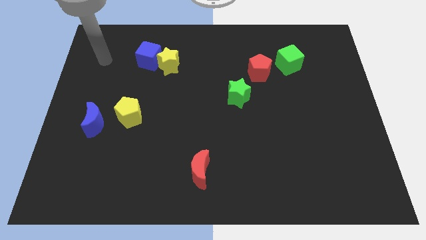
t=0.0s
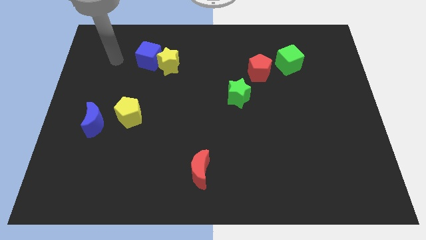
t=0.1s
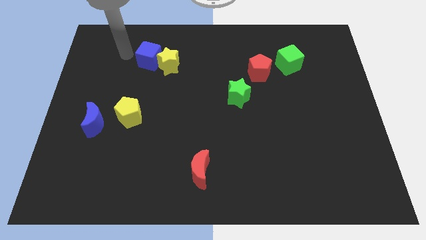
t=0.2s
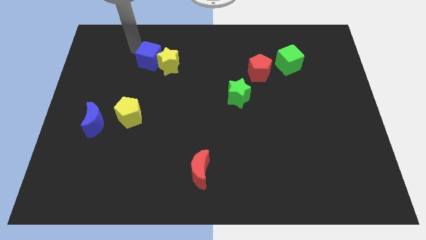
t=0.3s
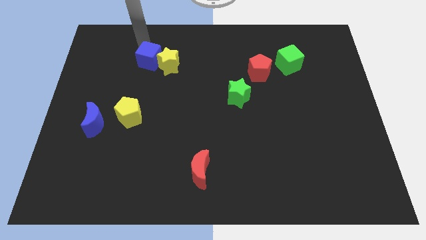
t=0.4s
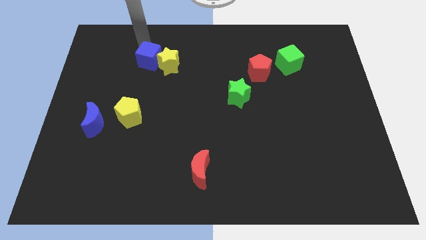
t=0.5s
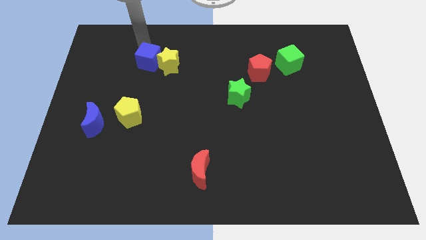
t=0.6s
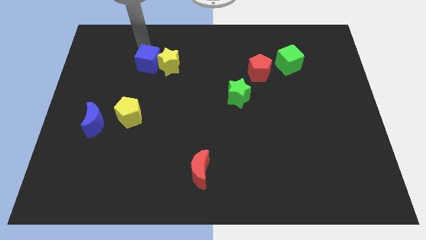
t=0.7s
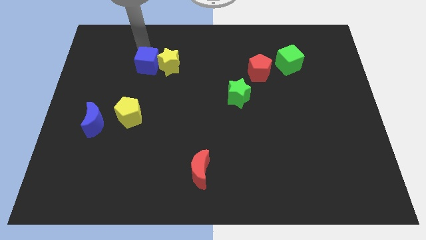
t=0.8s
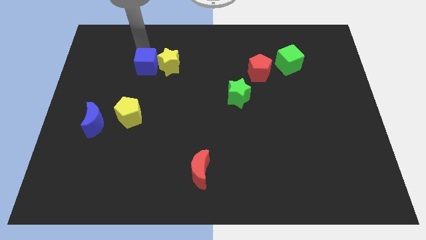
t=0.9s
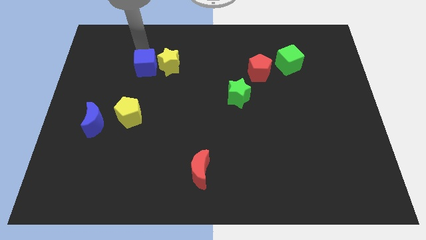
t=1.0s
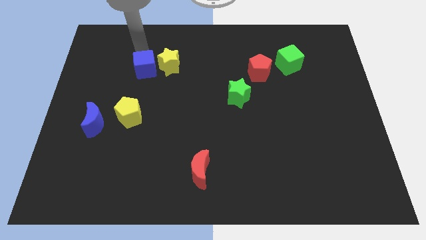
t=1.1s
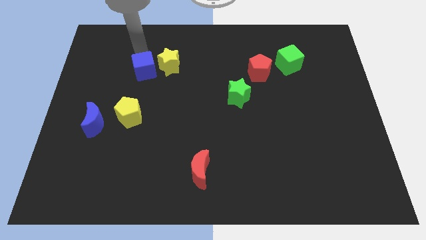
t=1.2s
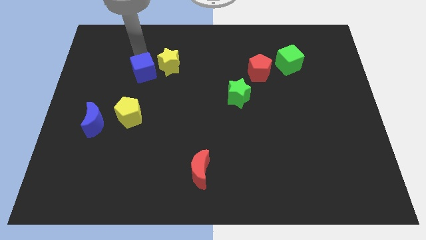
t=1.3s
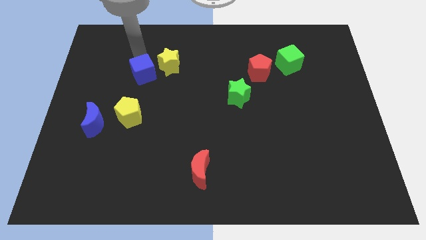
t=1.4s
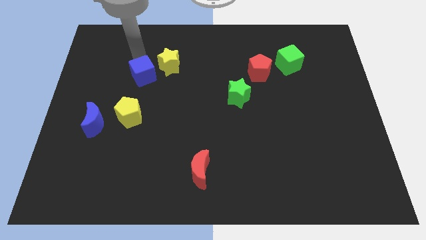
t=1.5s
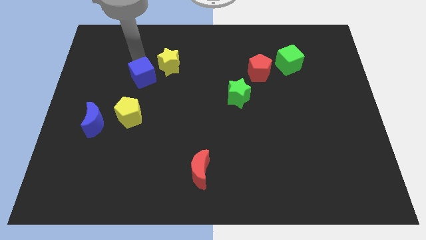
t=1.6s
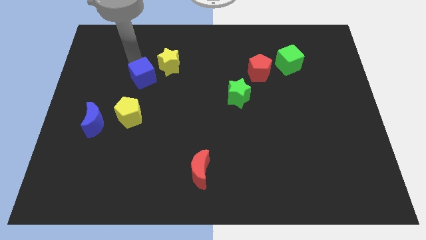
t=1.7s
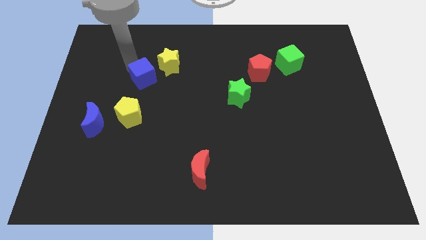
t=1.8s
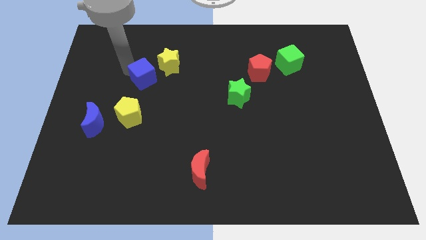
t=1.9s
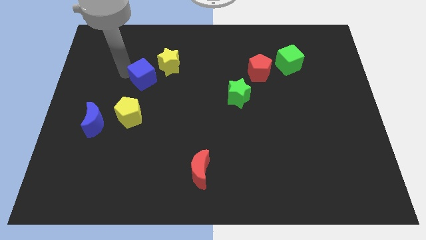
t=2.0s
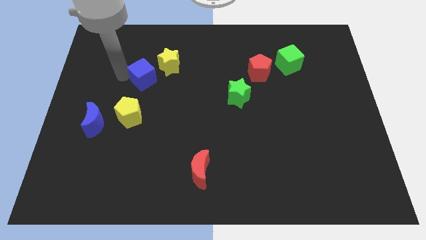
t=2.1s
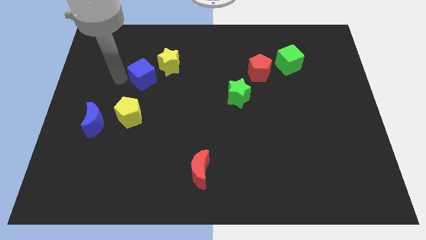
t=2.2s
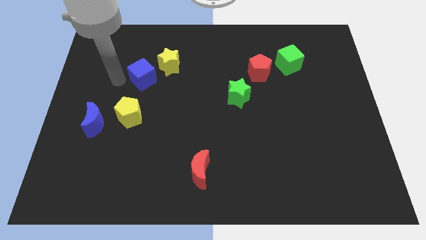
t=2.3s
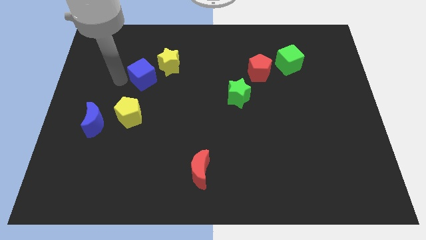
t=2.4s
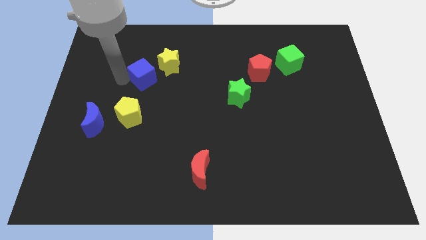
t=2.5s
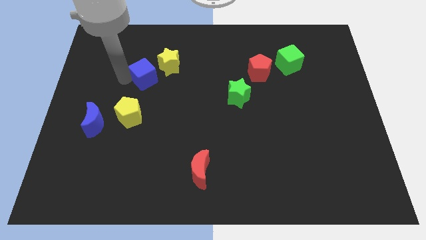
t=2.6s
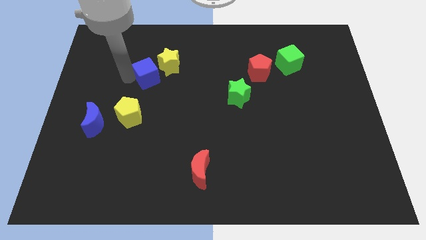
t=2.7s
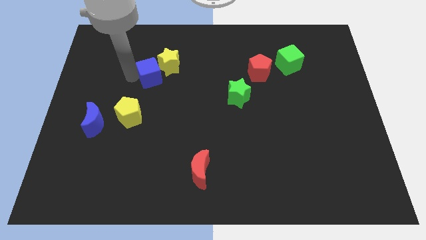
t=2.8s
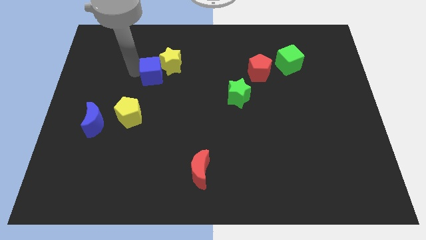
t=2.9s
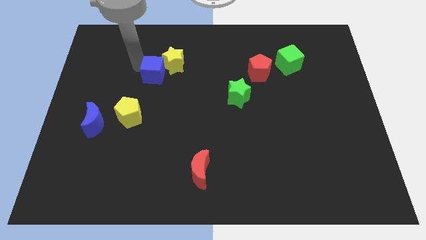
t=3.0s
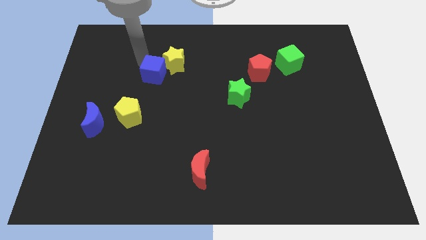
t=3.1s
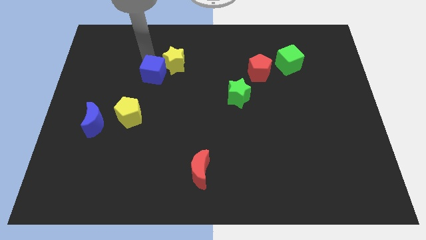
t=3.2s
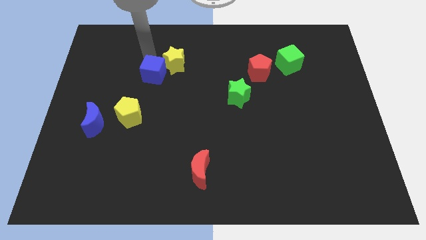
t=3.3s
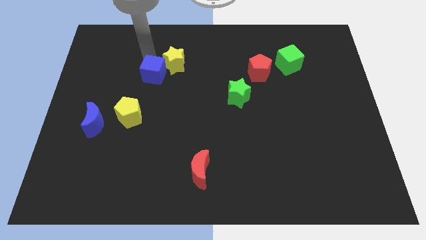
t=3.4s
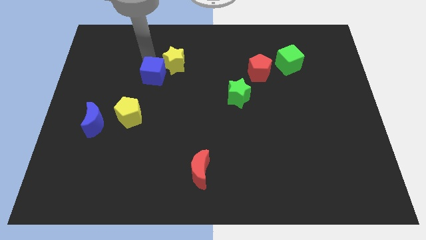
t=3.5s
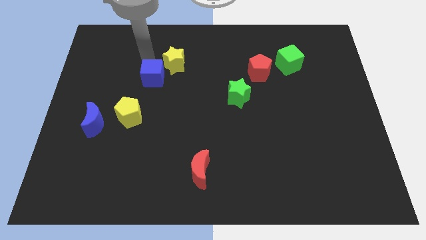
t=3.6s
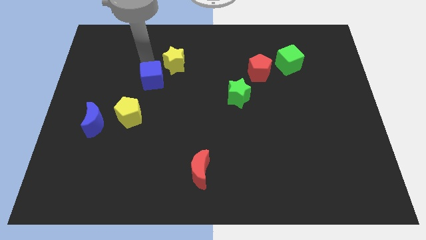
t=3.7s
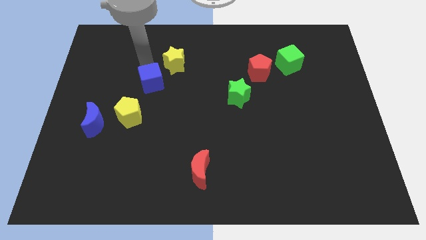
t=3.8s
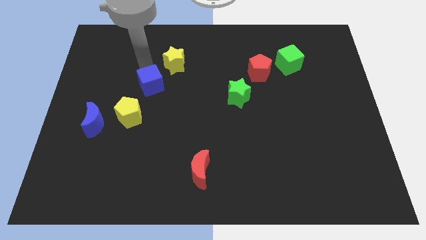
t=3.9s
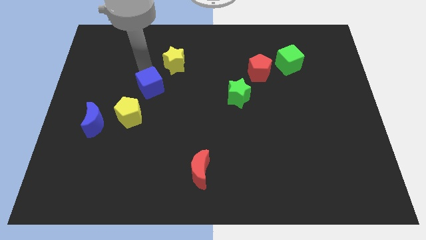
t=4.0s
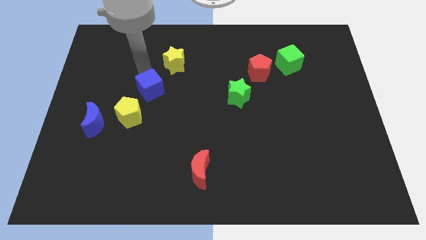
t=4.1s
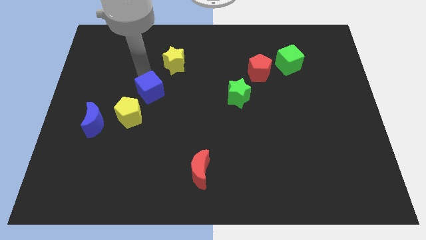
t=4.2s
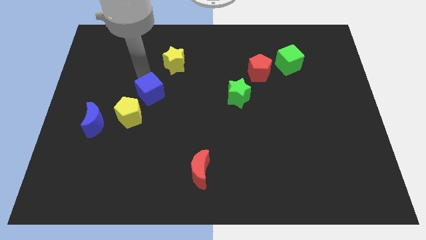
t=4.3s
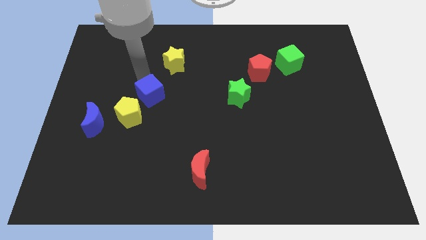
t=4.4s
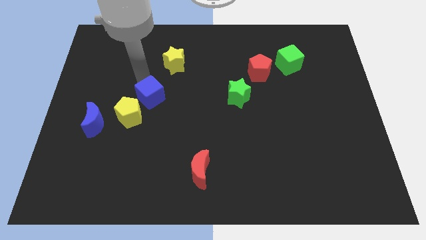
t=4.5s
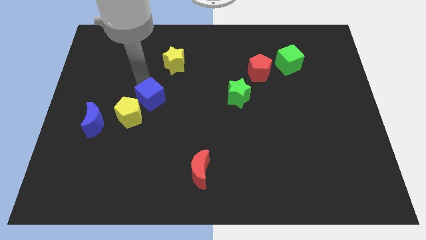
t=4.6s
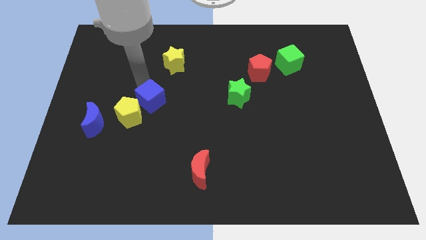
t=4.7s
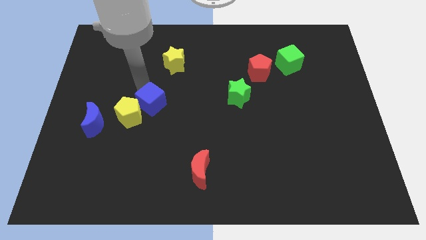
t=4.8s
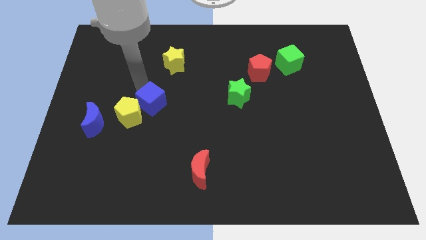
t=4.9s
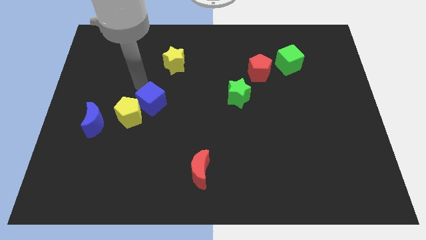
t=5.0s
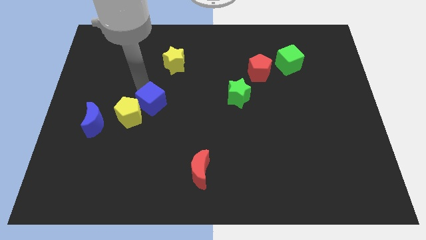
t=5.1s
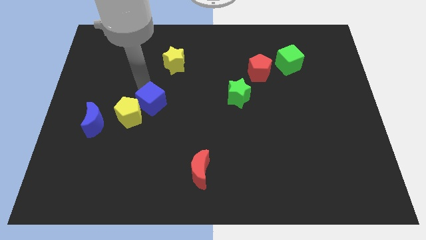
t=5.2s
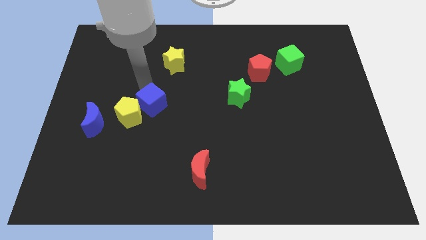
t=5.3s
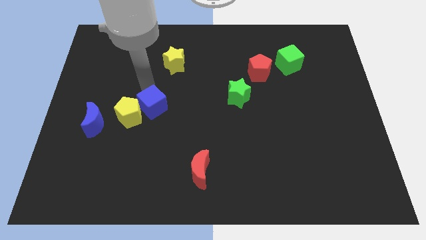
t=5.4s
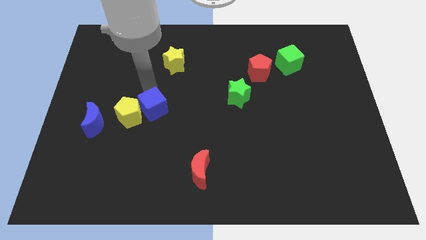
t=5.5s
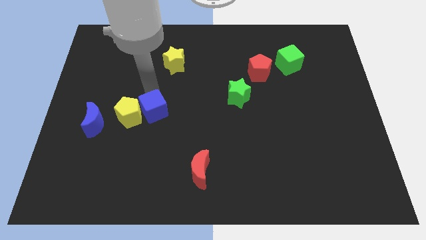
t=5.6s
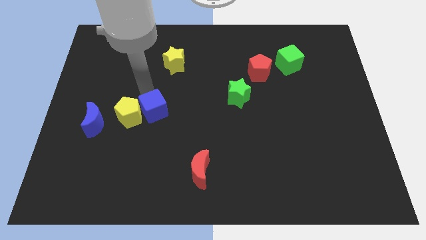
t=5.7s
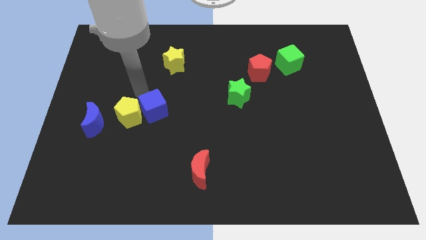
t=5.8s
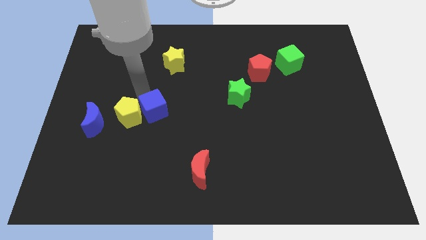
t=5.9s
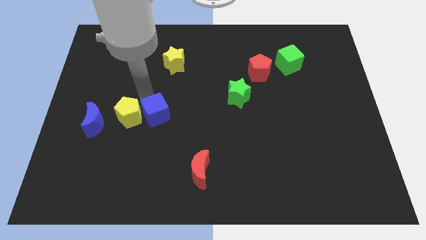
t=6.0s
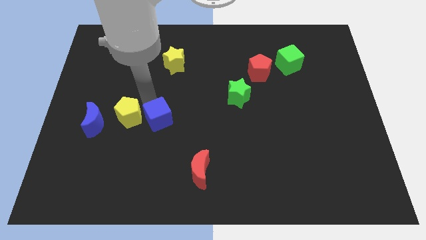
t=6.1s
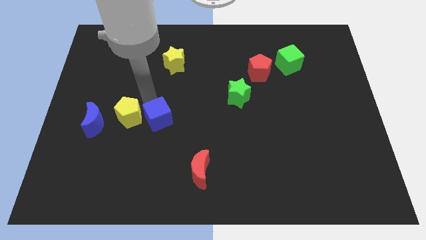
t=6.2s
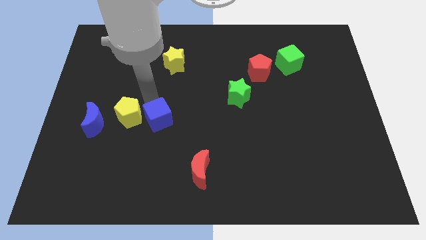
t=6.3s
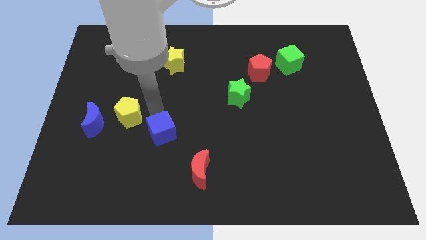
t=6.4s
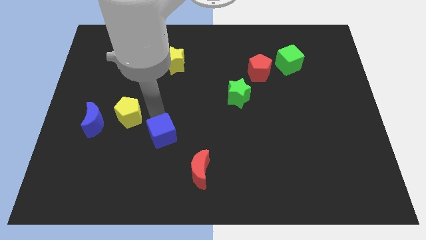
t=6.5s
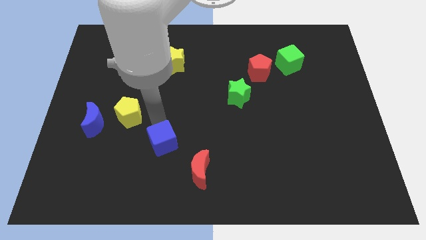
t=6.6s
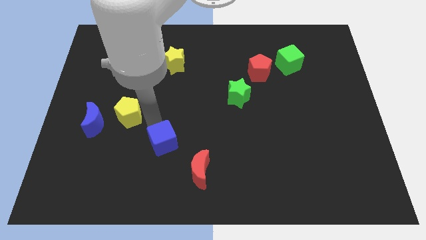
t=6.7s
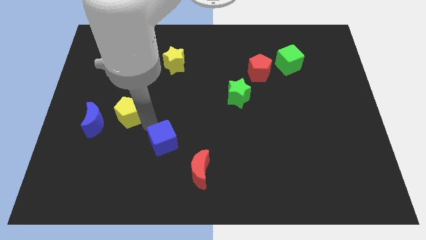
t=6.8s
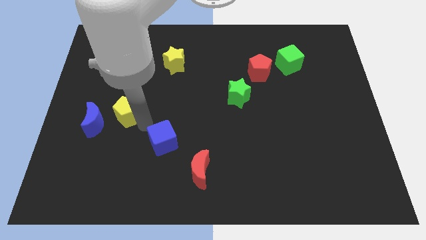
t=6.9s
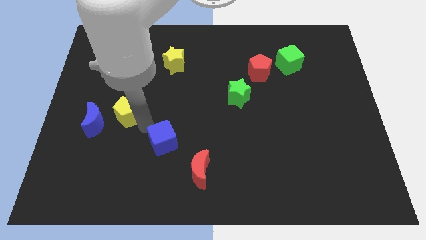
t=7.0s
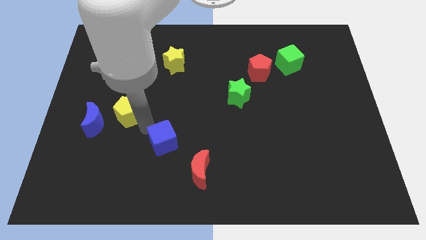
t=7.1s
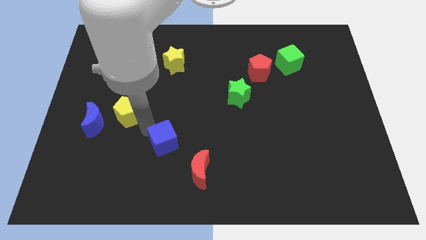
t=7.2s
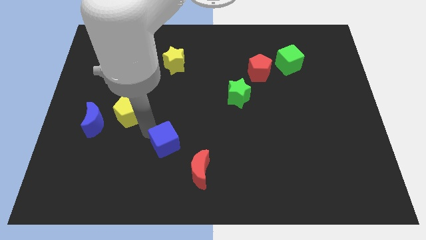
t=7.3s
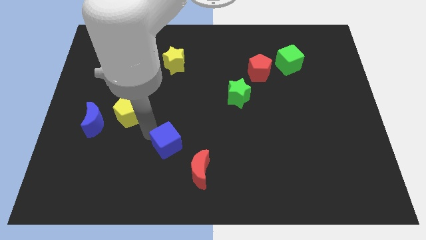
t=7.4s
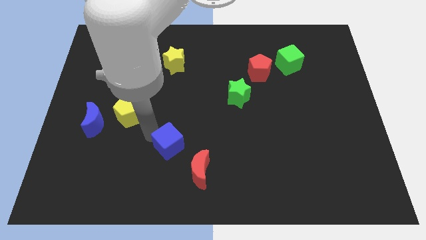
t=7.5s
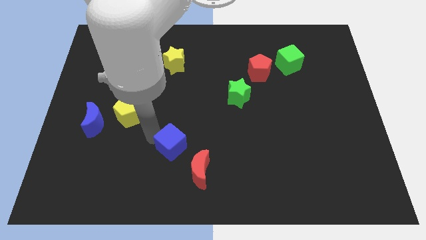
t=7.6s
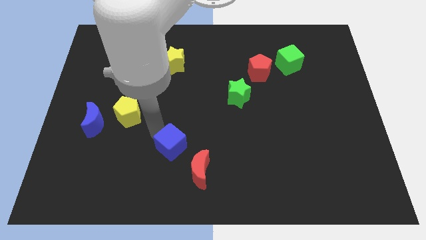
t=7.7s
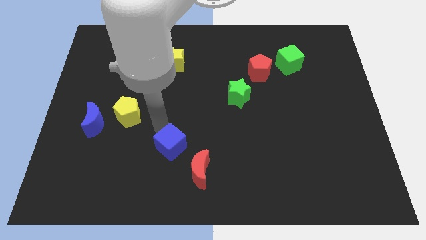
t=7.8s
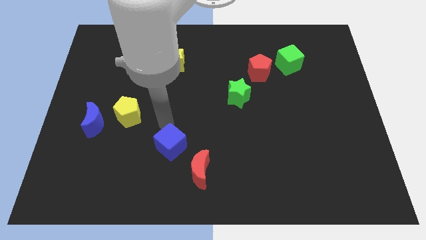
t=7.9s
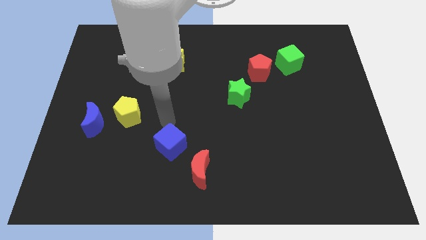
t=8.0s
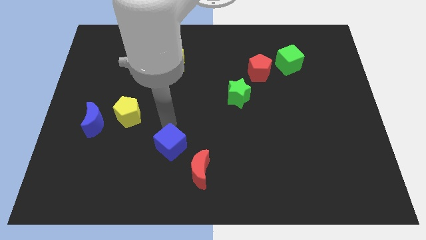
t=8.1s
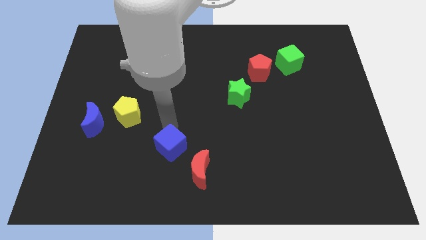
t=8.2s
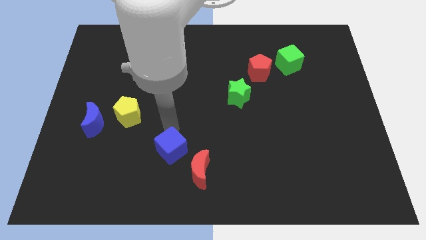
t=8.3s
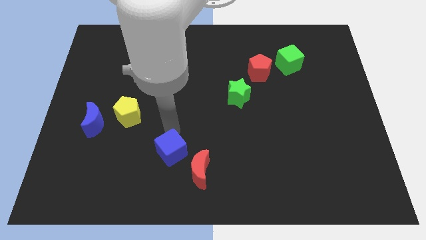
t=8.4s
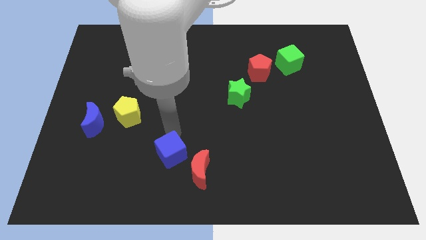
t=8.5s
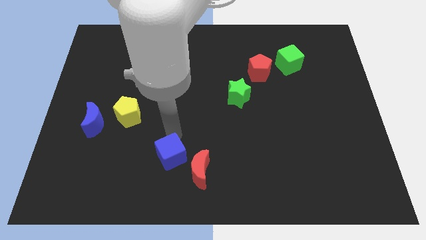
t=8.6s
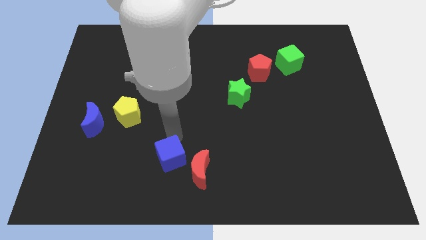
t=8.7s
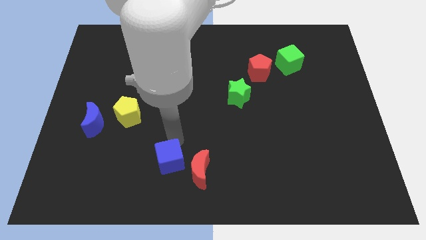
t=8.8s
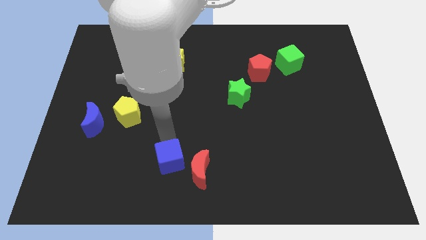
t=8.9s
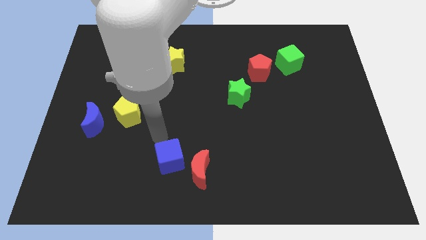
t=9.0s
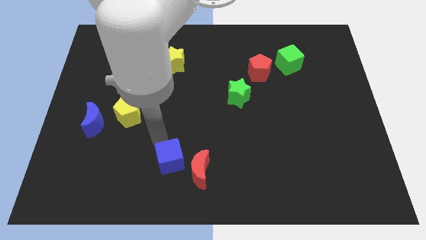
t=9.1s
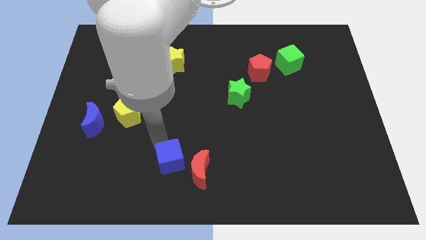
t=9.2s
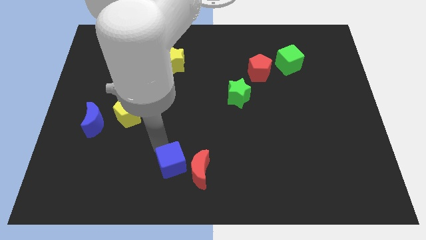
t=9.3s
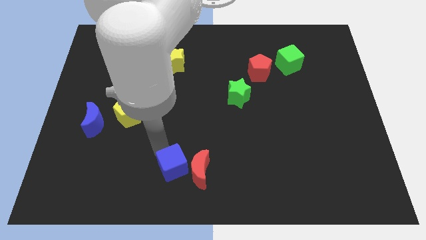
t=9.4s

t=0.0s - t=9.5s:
move the blue cube to the bottom
